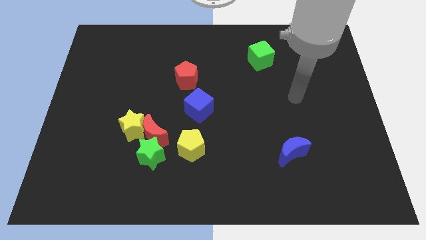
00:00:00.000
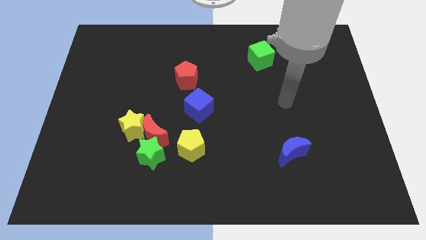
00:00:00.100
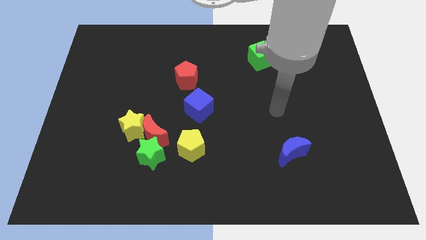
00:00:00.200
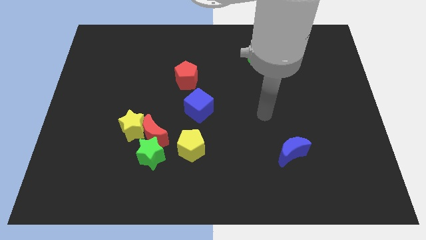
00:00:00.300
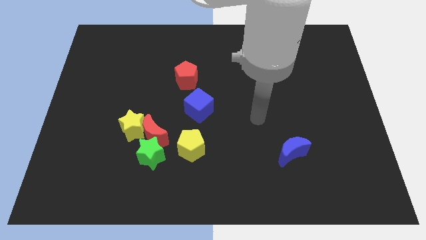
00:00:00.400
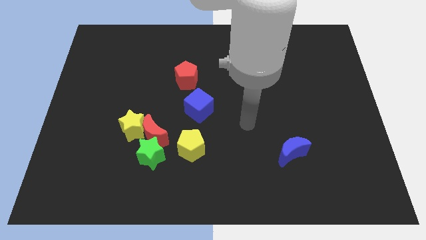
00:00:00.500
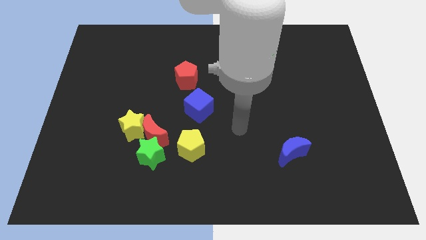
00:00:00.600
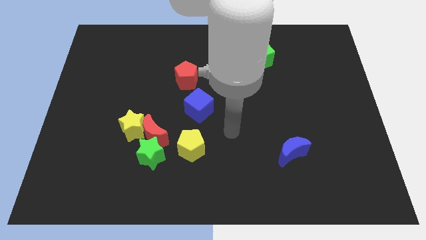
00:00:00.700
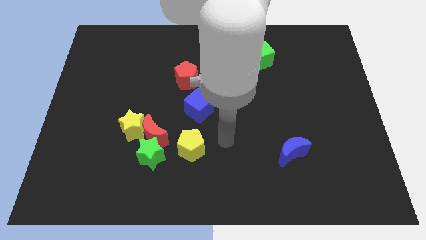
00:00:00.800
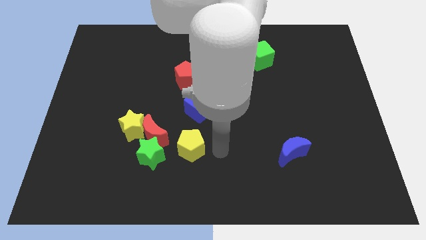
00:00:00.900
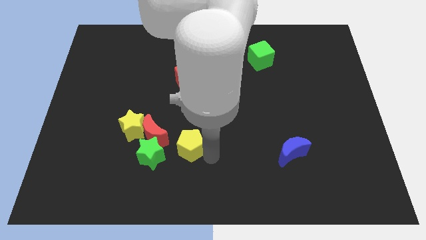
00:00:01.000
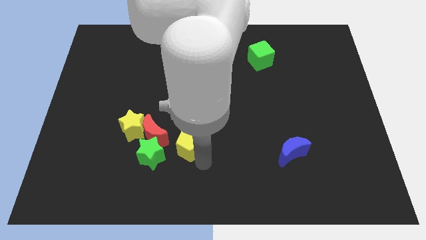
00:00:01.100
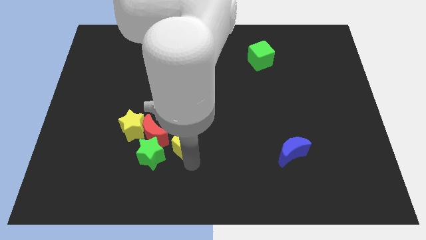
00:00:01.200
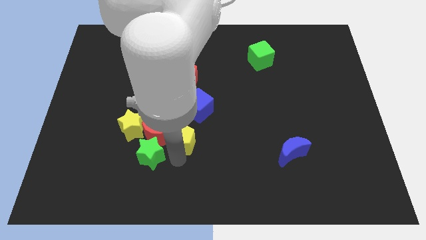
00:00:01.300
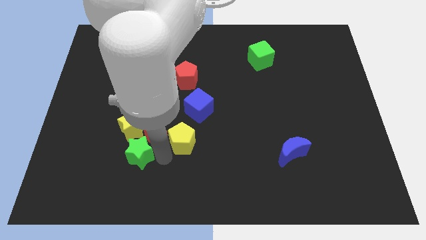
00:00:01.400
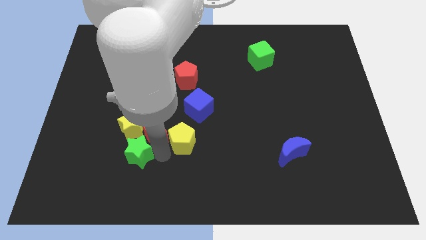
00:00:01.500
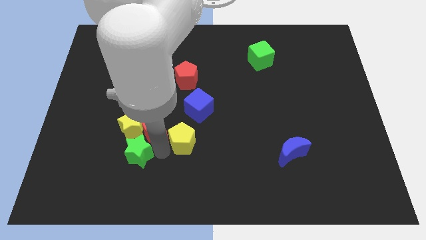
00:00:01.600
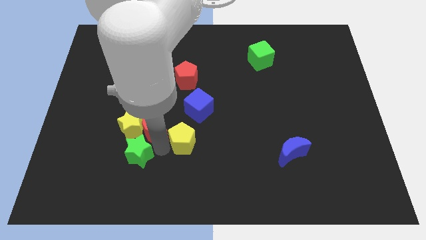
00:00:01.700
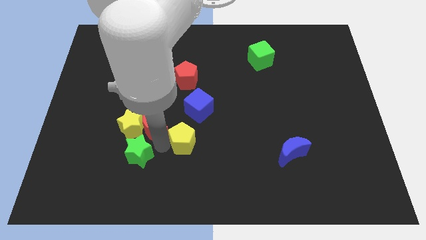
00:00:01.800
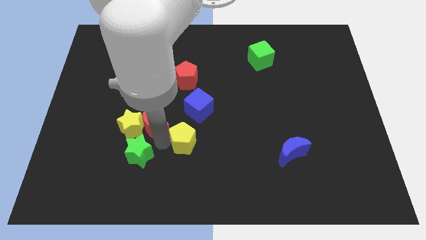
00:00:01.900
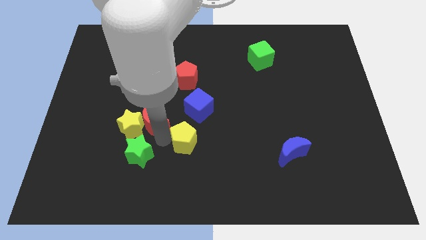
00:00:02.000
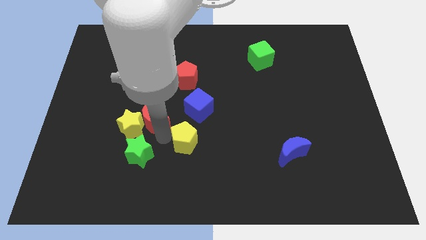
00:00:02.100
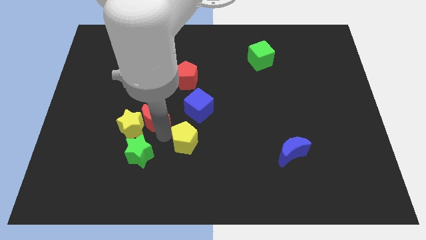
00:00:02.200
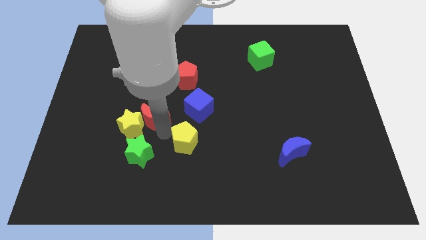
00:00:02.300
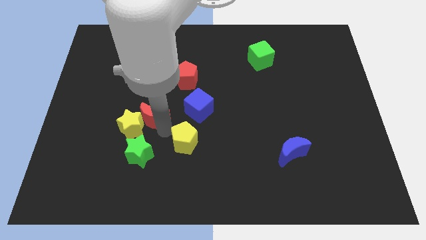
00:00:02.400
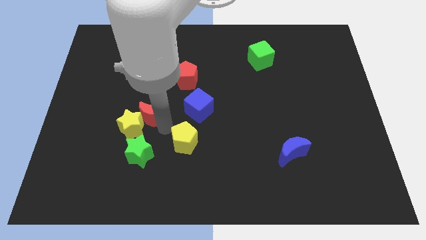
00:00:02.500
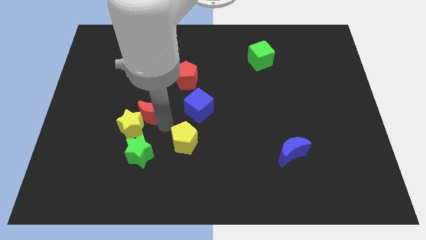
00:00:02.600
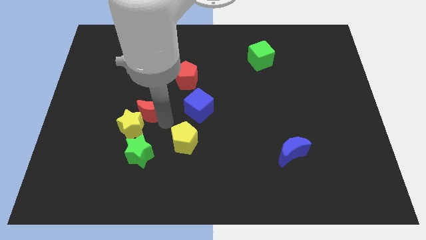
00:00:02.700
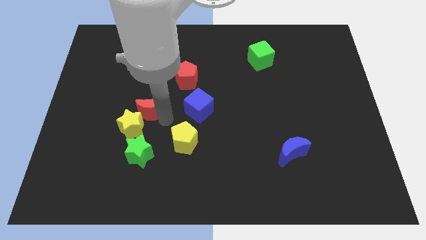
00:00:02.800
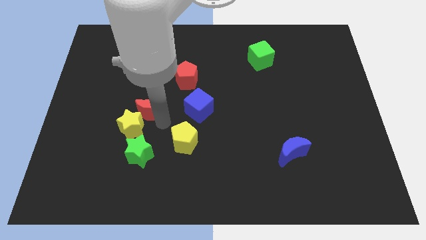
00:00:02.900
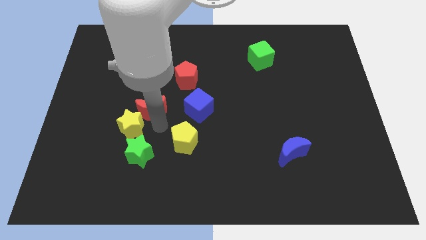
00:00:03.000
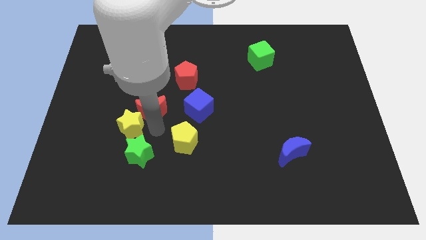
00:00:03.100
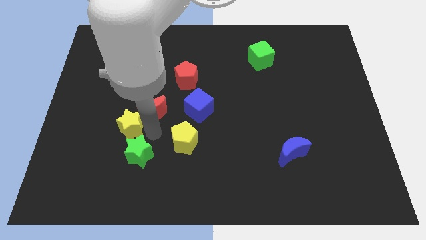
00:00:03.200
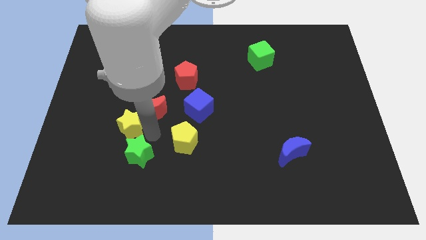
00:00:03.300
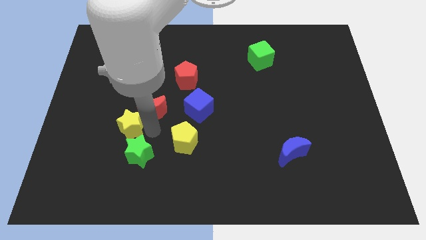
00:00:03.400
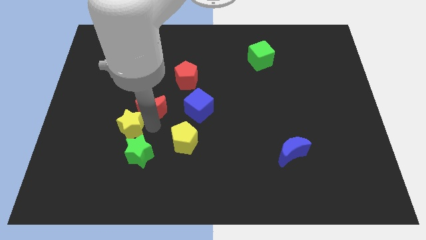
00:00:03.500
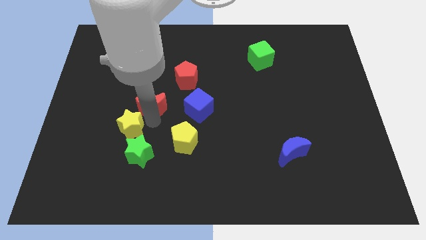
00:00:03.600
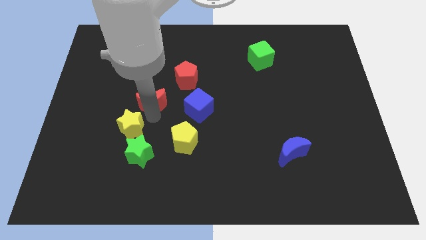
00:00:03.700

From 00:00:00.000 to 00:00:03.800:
pull the red moon apart from the yellow star, green star, and yellow pentagon

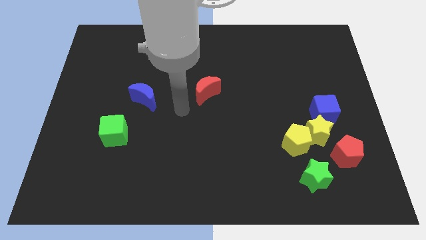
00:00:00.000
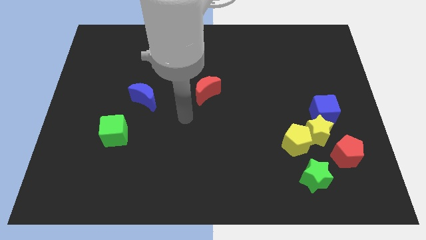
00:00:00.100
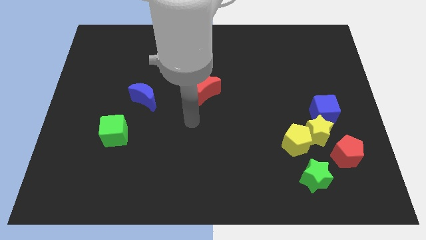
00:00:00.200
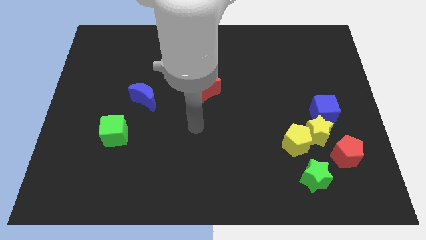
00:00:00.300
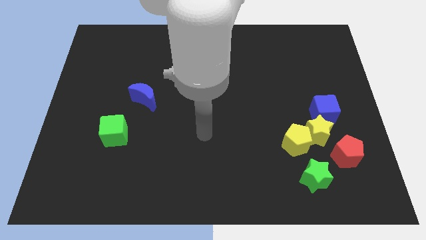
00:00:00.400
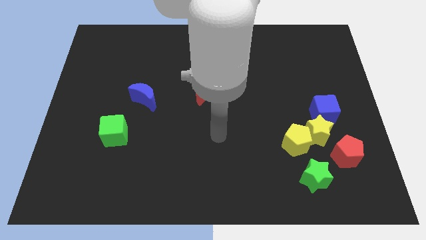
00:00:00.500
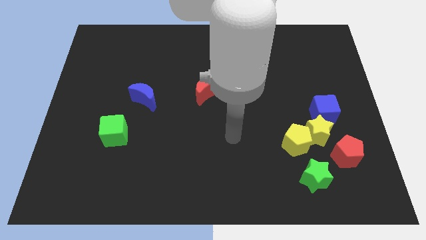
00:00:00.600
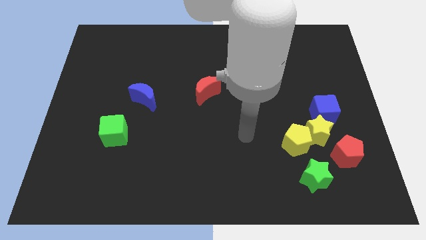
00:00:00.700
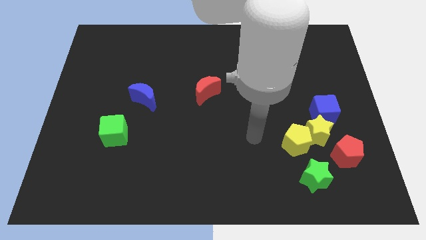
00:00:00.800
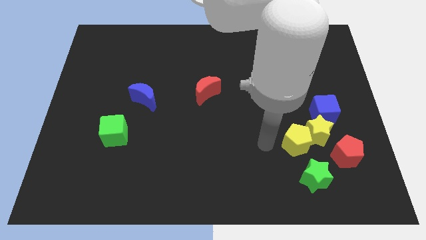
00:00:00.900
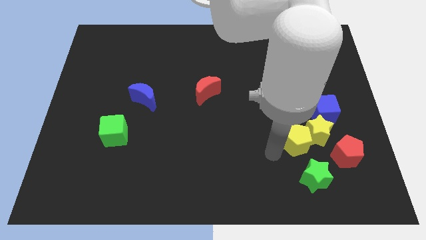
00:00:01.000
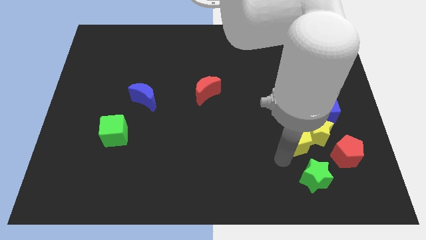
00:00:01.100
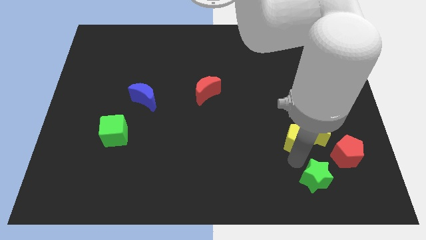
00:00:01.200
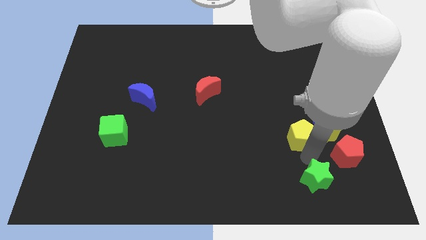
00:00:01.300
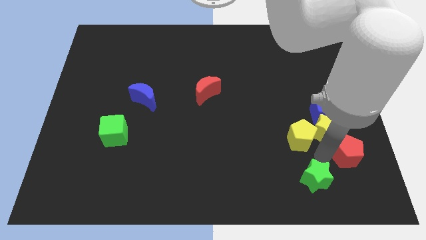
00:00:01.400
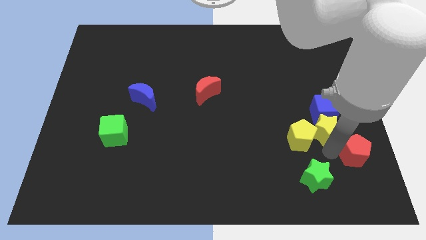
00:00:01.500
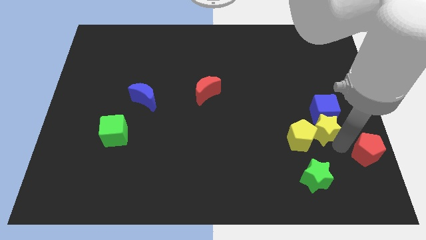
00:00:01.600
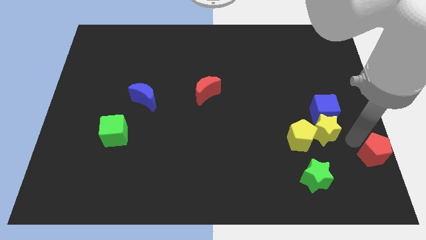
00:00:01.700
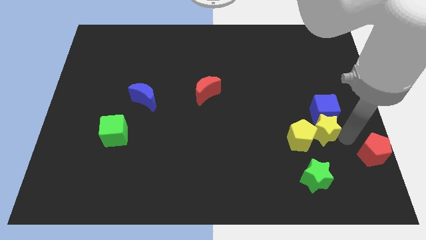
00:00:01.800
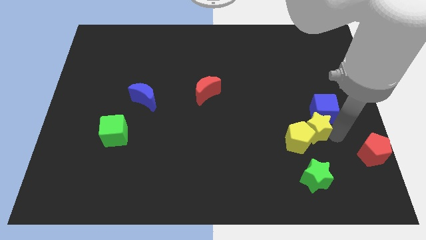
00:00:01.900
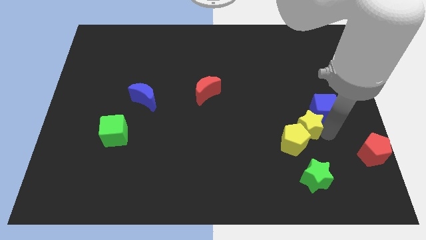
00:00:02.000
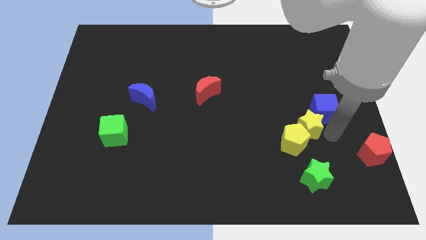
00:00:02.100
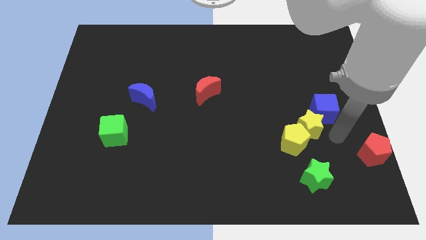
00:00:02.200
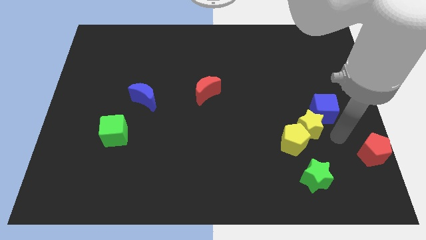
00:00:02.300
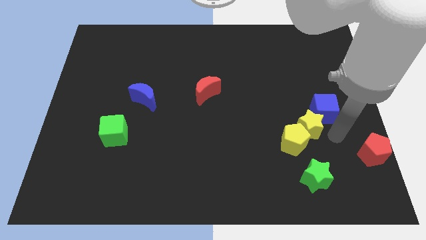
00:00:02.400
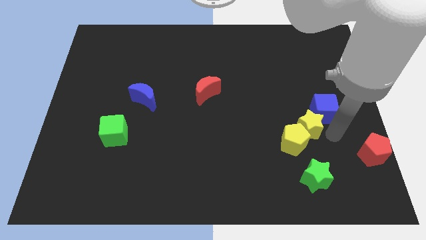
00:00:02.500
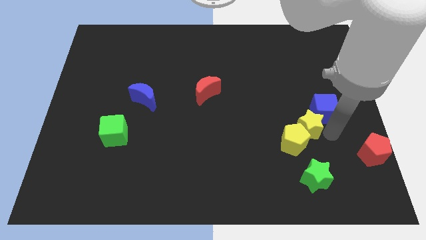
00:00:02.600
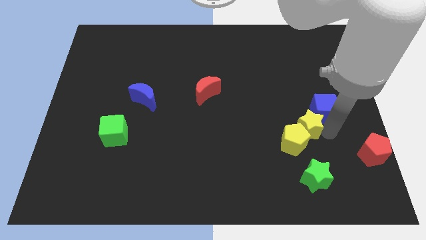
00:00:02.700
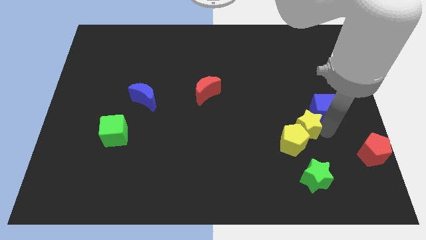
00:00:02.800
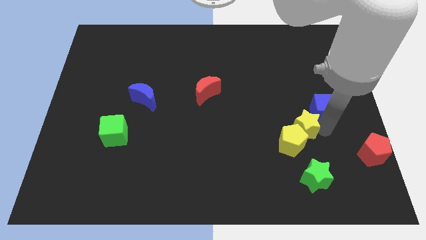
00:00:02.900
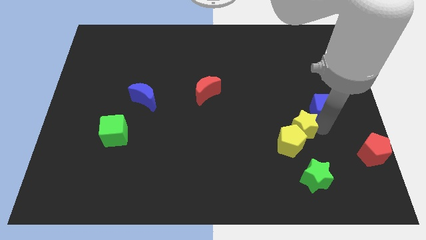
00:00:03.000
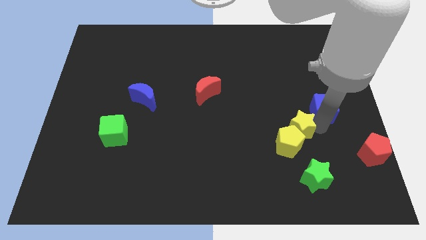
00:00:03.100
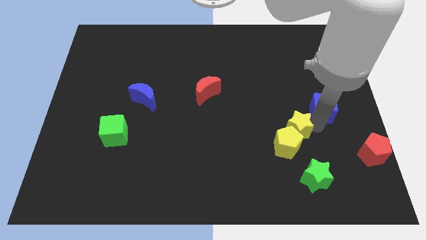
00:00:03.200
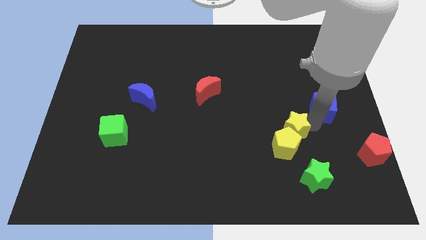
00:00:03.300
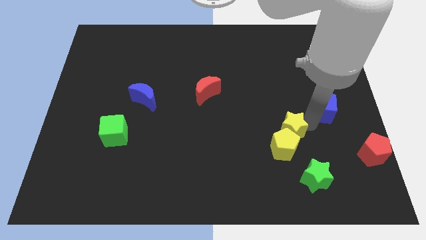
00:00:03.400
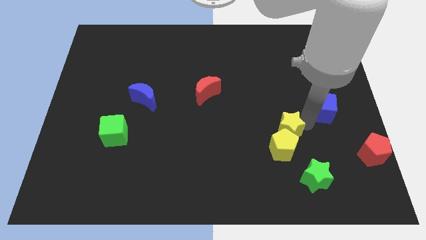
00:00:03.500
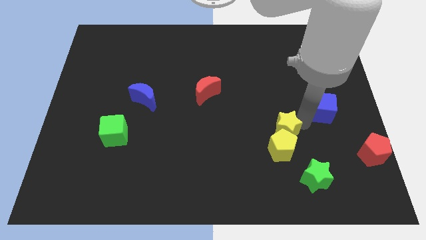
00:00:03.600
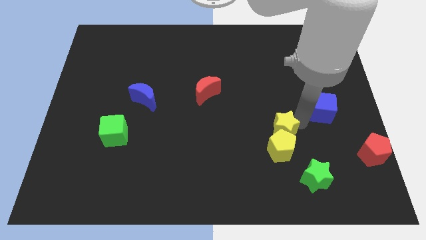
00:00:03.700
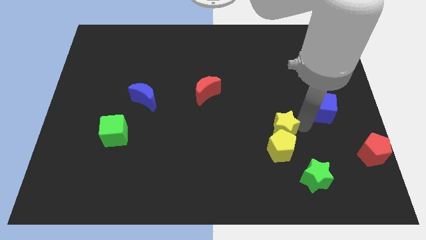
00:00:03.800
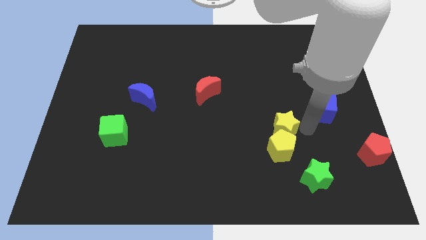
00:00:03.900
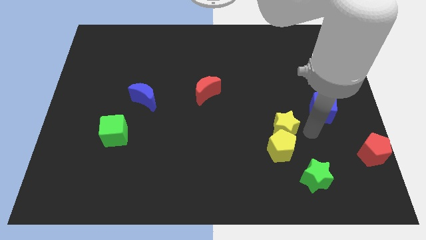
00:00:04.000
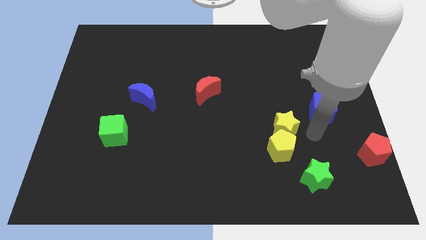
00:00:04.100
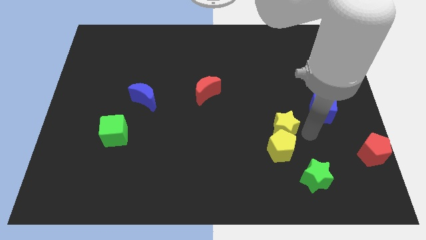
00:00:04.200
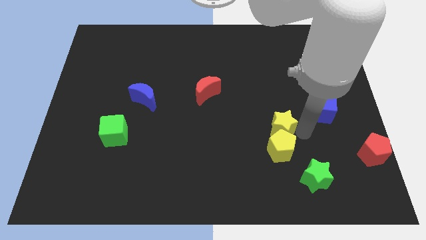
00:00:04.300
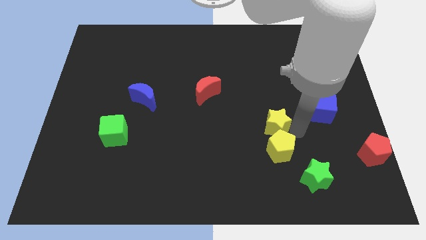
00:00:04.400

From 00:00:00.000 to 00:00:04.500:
pull the yellow star apart from the yellow pentagon, blue cube, and red pentagon

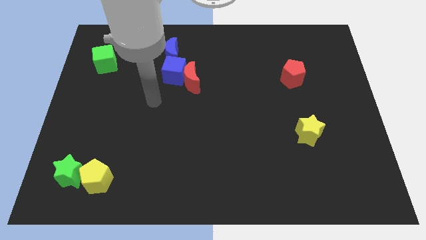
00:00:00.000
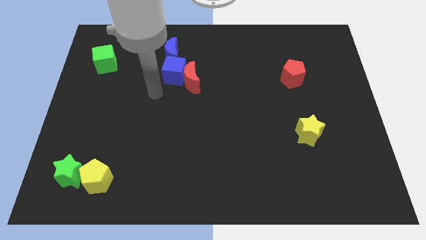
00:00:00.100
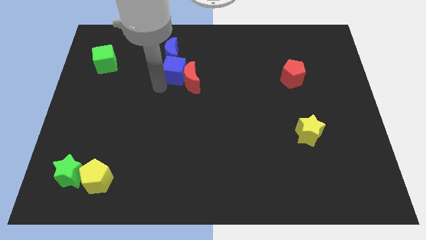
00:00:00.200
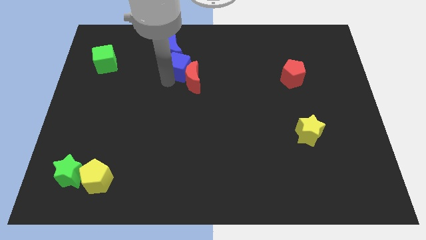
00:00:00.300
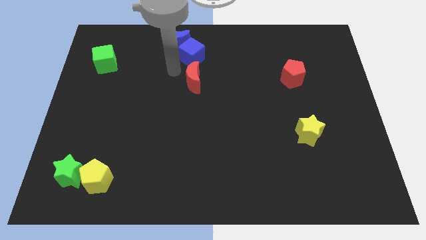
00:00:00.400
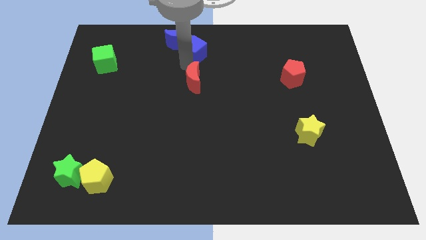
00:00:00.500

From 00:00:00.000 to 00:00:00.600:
move the red moon away from the blue cube

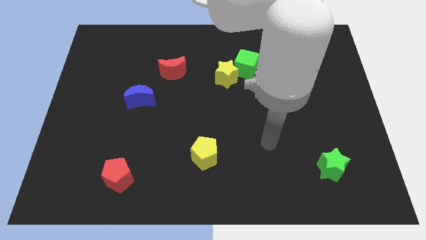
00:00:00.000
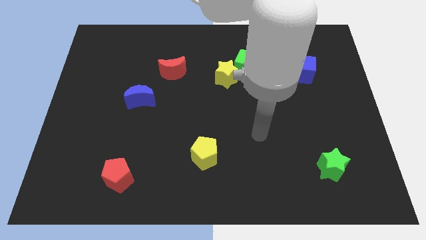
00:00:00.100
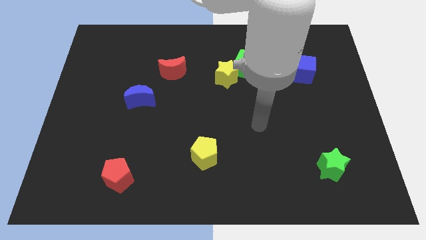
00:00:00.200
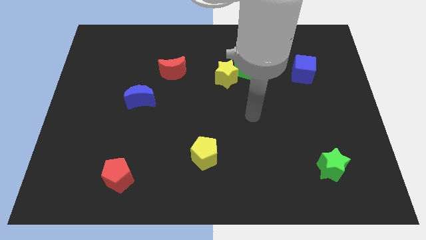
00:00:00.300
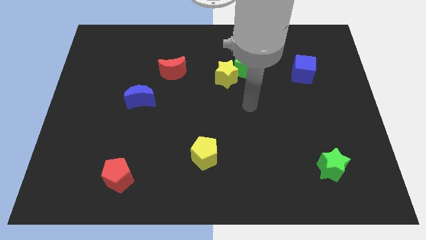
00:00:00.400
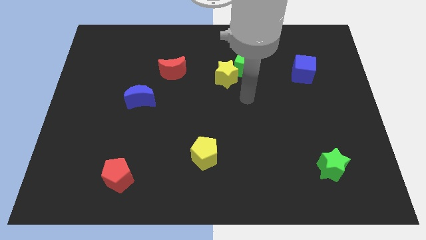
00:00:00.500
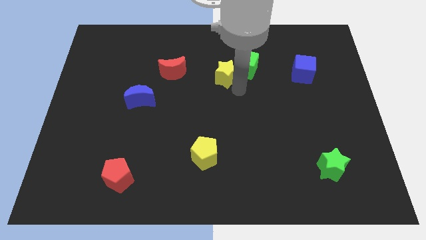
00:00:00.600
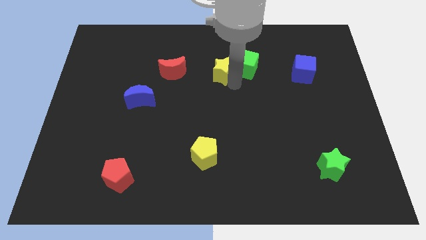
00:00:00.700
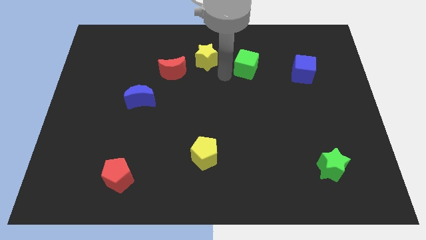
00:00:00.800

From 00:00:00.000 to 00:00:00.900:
separate the green cube from the yellow star
